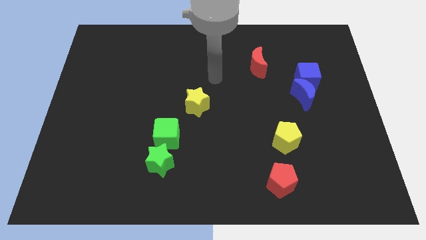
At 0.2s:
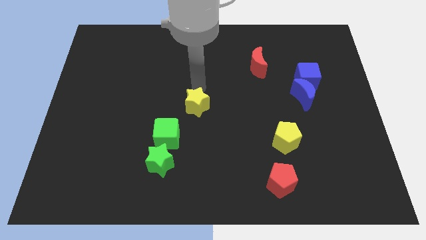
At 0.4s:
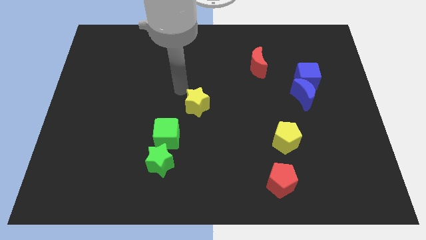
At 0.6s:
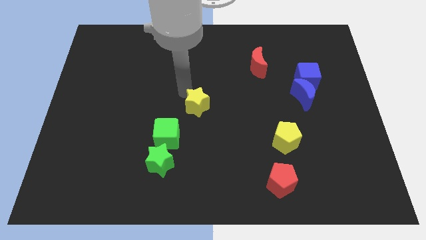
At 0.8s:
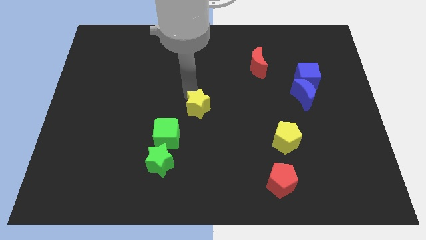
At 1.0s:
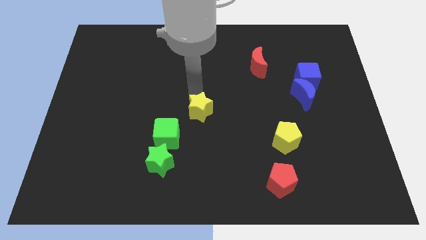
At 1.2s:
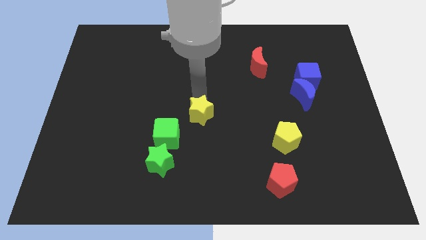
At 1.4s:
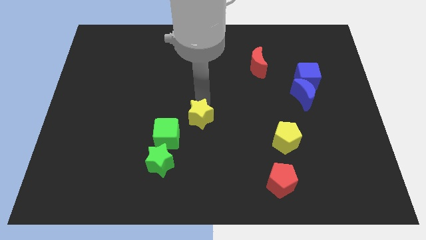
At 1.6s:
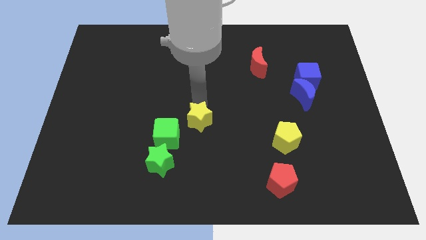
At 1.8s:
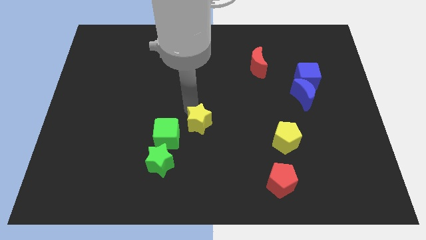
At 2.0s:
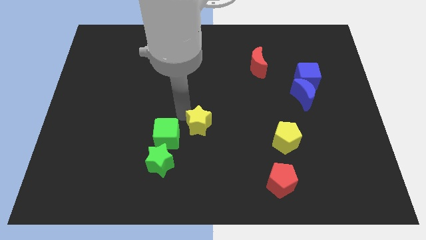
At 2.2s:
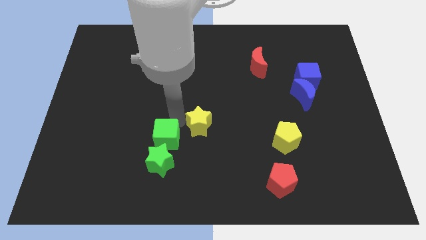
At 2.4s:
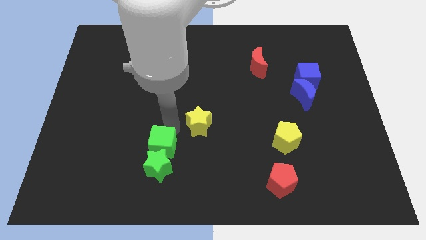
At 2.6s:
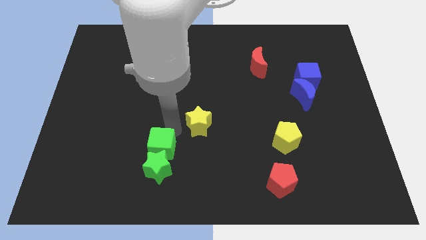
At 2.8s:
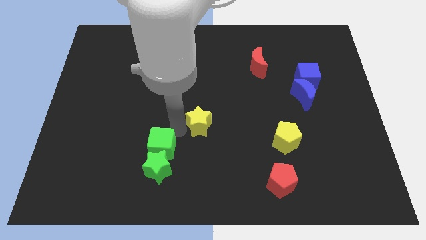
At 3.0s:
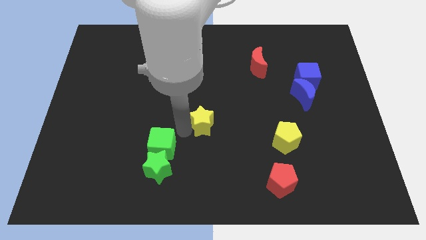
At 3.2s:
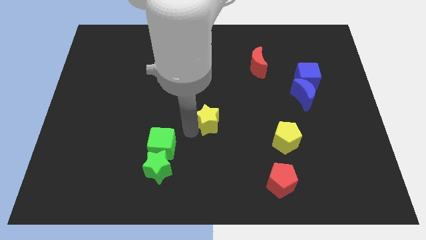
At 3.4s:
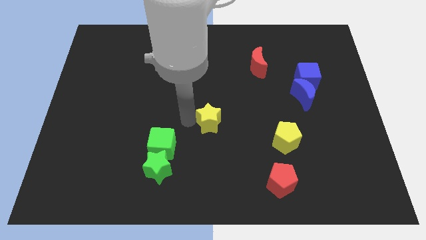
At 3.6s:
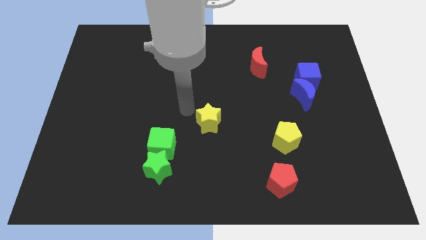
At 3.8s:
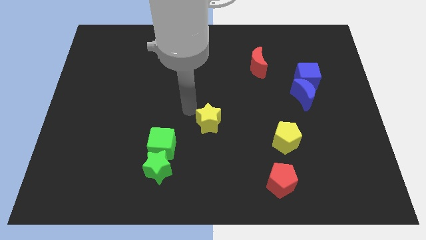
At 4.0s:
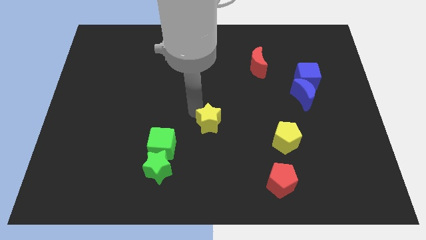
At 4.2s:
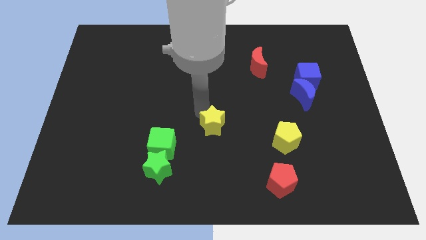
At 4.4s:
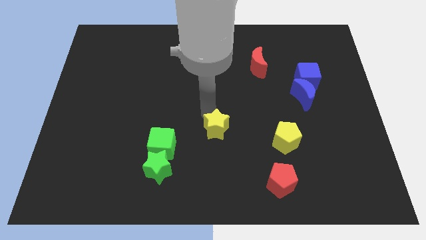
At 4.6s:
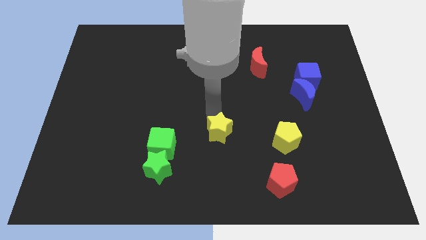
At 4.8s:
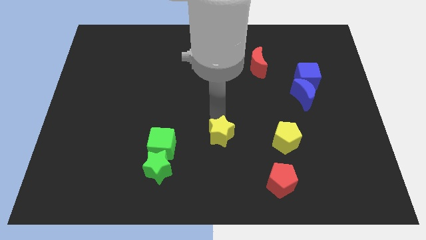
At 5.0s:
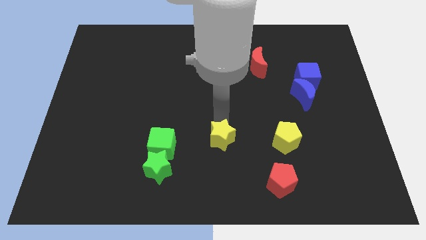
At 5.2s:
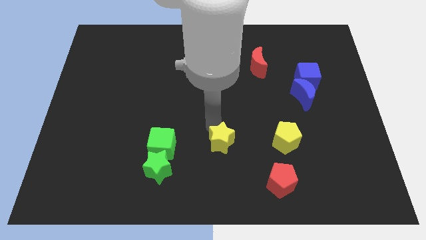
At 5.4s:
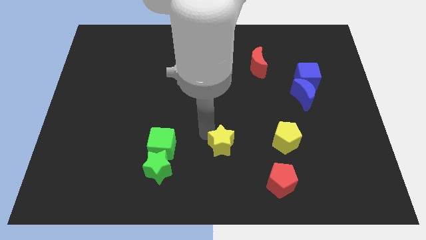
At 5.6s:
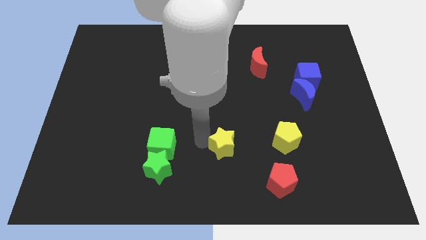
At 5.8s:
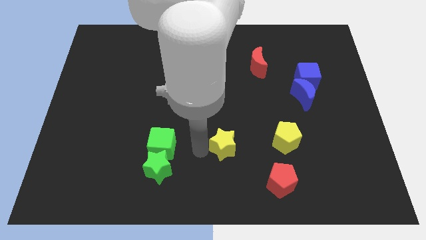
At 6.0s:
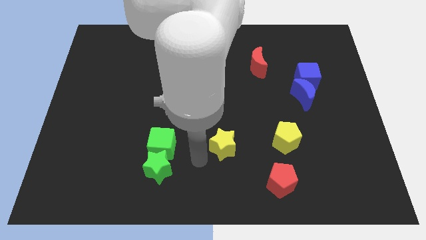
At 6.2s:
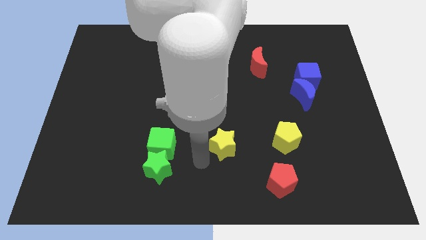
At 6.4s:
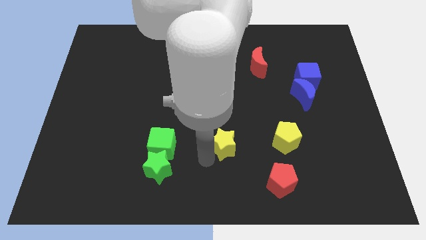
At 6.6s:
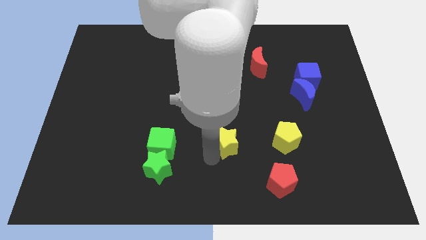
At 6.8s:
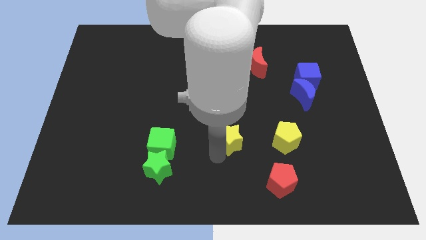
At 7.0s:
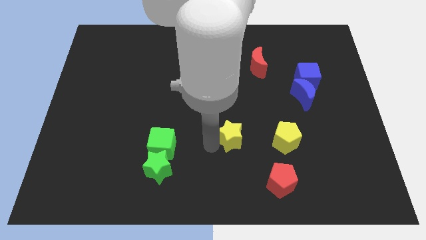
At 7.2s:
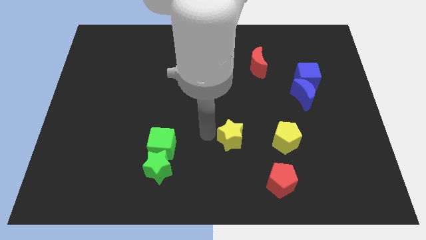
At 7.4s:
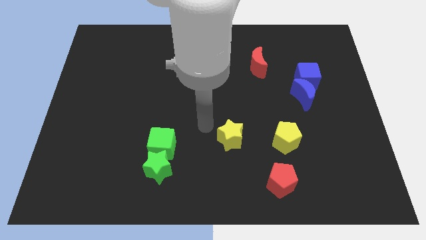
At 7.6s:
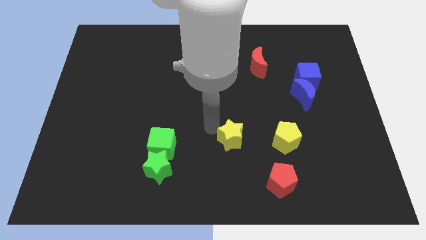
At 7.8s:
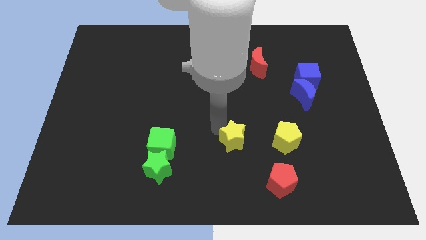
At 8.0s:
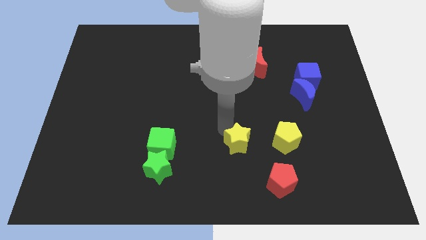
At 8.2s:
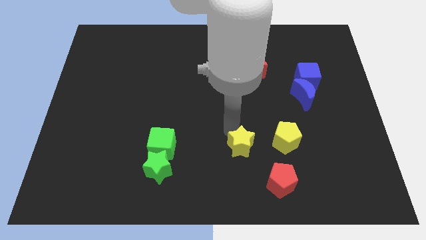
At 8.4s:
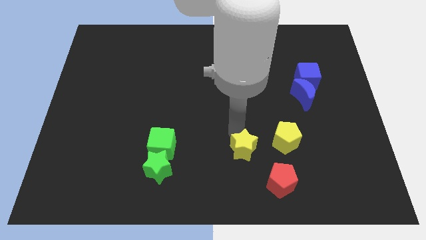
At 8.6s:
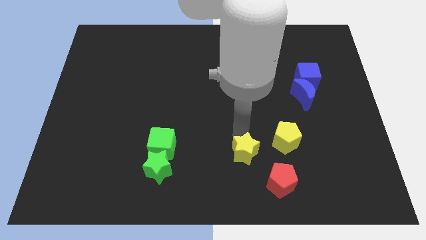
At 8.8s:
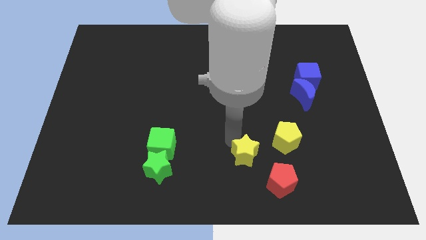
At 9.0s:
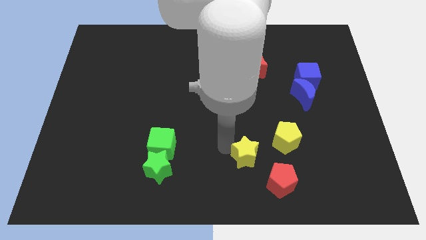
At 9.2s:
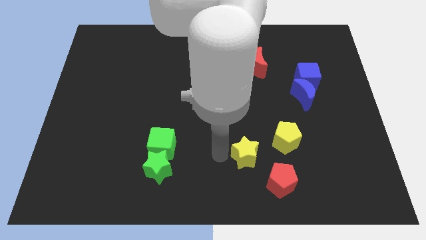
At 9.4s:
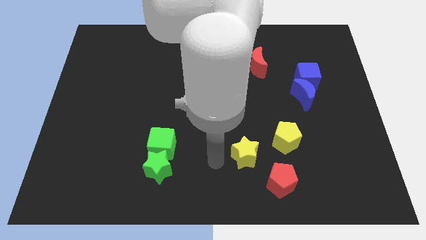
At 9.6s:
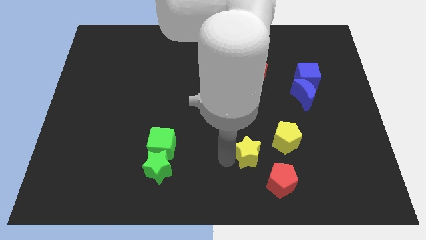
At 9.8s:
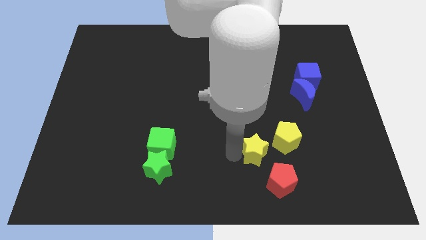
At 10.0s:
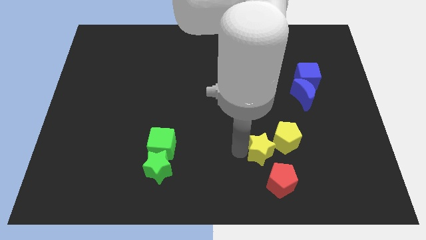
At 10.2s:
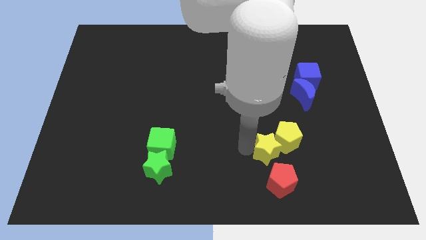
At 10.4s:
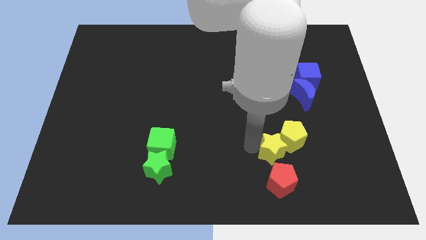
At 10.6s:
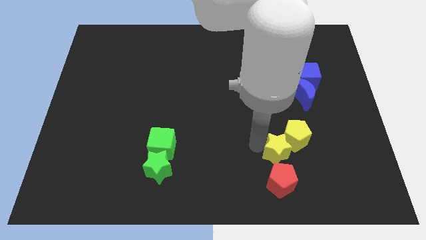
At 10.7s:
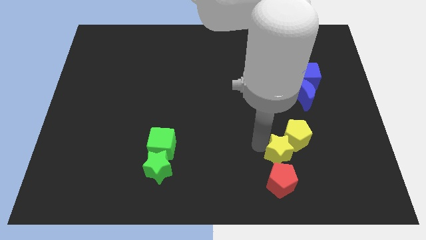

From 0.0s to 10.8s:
put the yellow star to the top right of the red pentagon

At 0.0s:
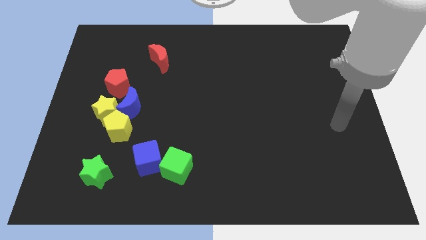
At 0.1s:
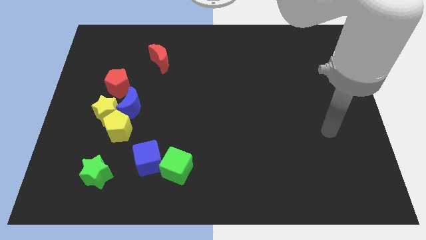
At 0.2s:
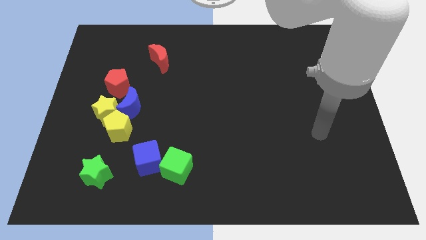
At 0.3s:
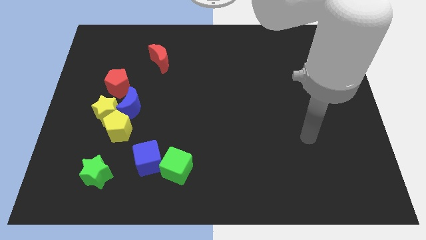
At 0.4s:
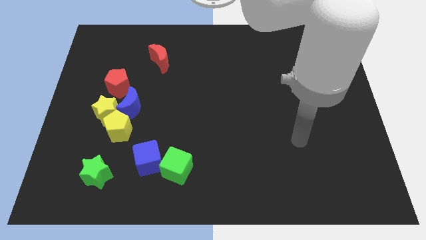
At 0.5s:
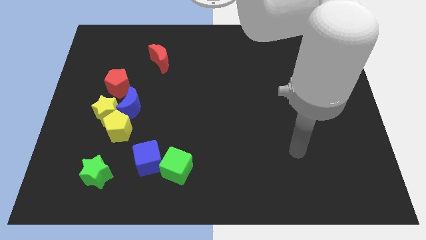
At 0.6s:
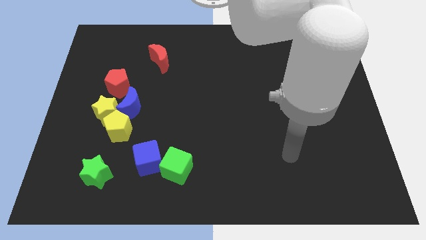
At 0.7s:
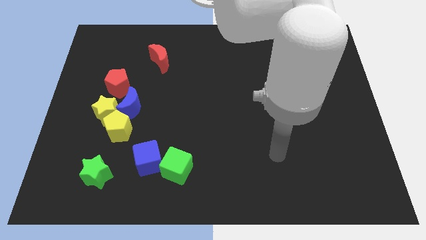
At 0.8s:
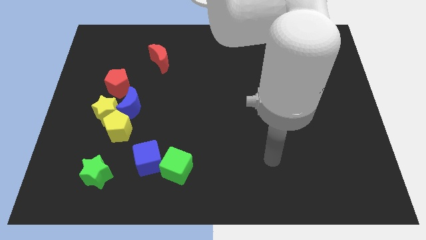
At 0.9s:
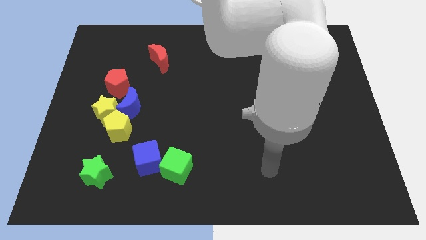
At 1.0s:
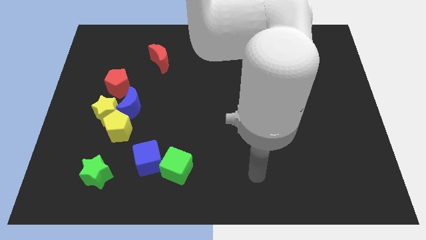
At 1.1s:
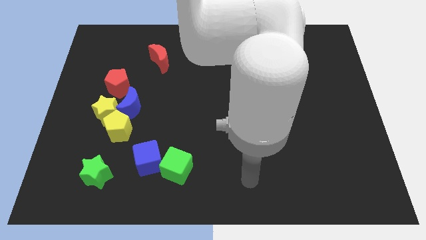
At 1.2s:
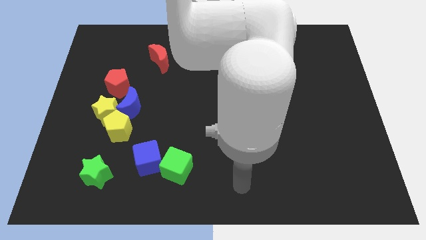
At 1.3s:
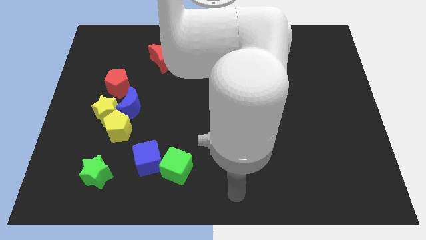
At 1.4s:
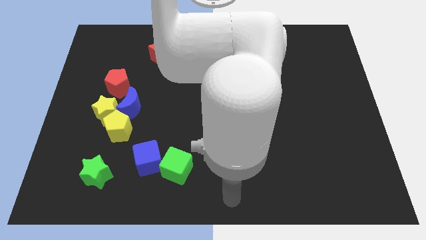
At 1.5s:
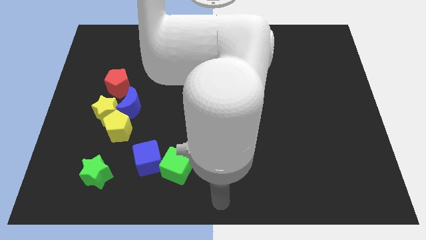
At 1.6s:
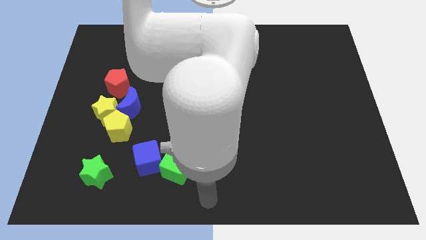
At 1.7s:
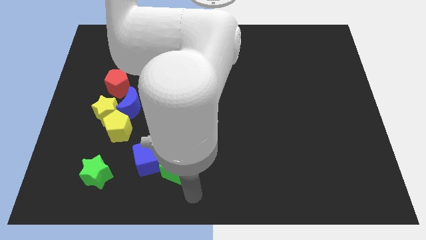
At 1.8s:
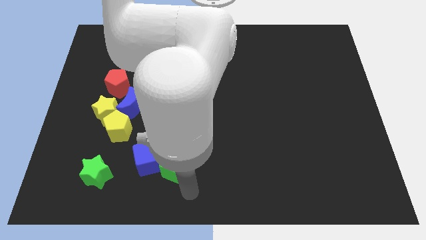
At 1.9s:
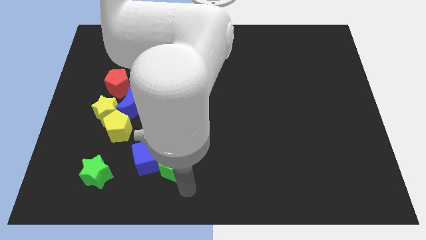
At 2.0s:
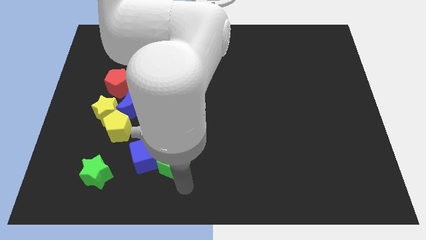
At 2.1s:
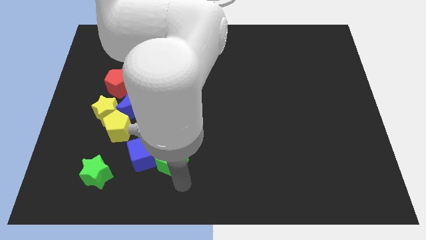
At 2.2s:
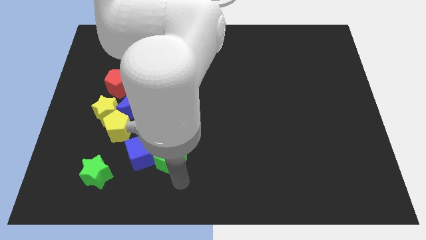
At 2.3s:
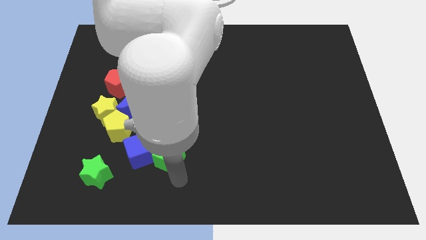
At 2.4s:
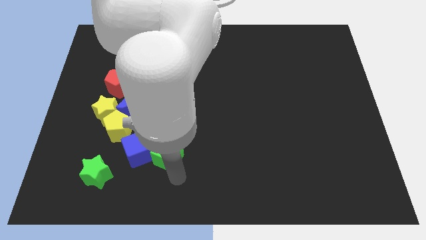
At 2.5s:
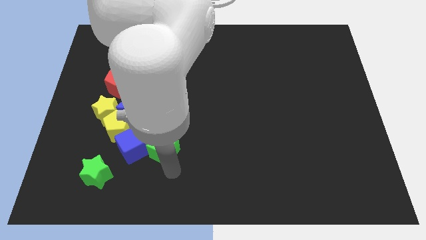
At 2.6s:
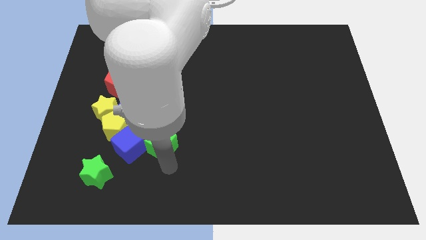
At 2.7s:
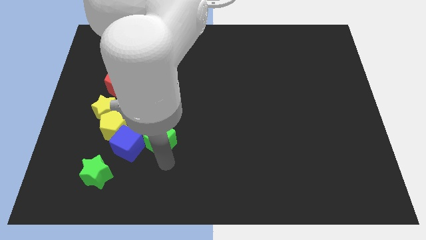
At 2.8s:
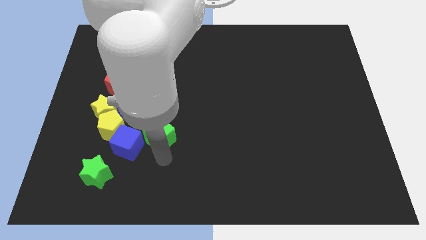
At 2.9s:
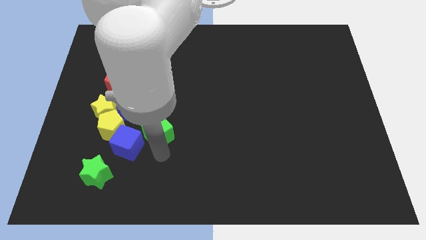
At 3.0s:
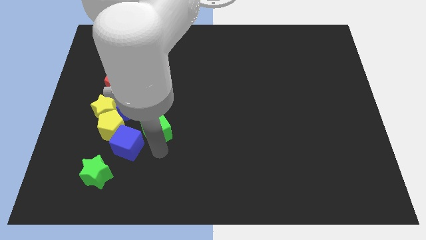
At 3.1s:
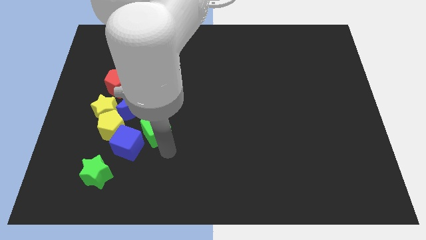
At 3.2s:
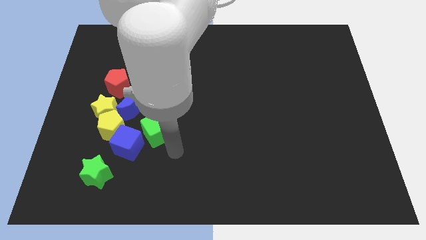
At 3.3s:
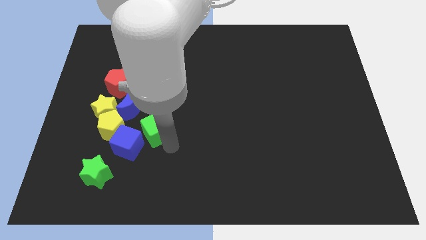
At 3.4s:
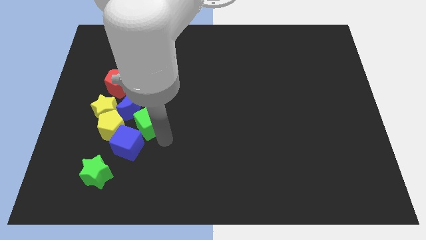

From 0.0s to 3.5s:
slide the green cube to the top of the blue cube
